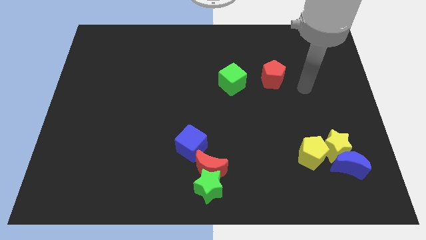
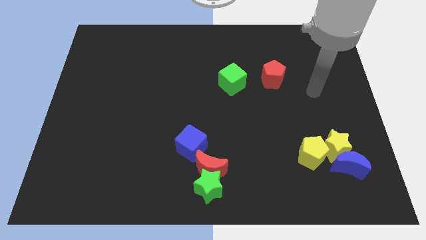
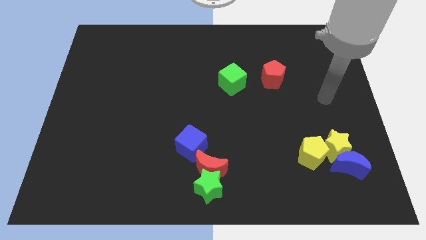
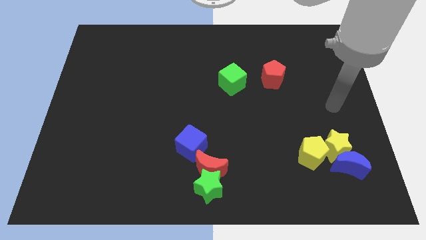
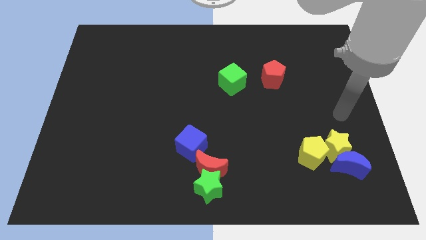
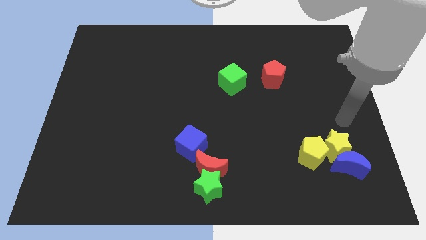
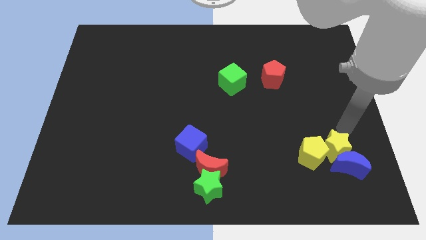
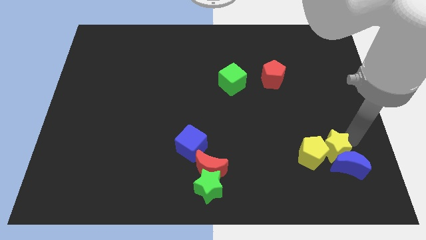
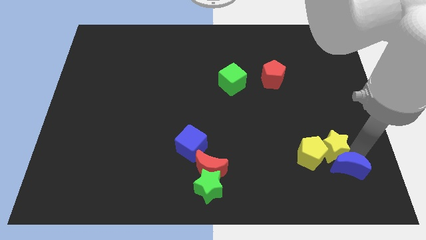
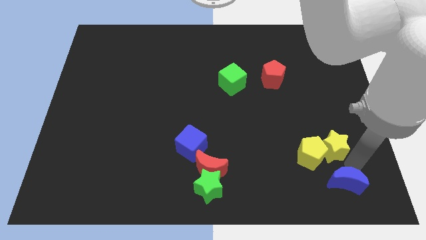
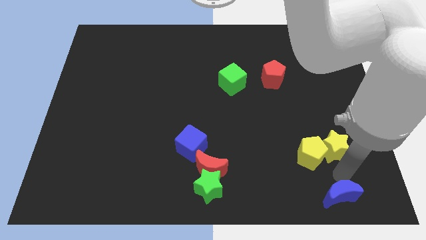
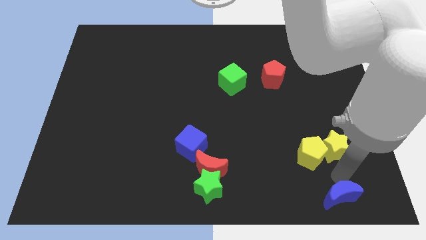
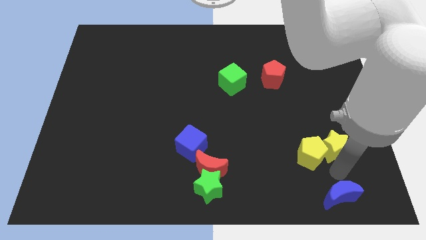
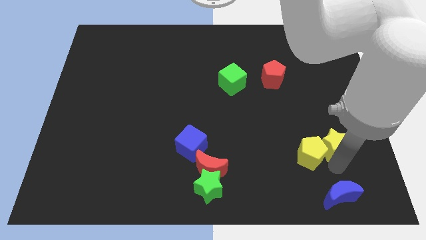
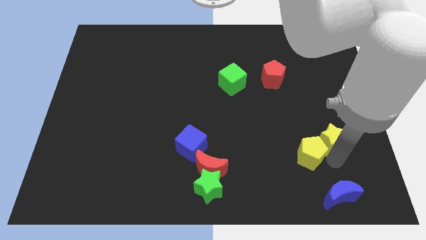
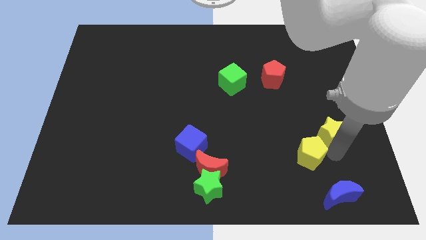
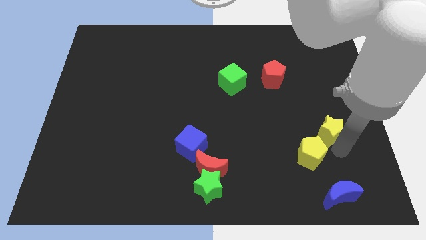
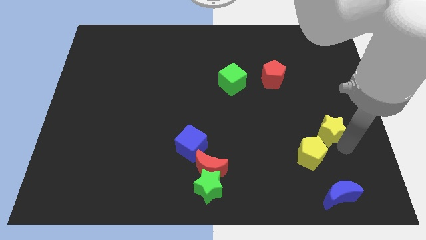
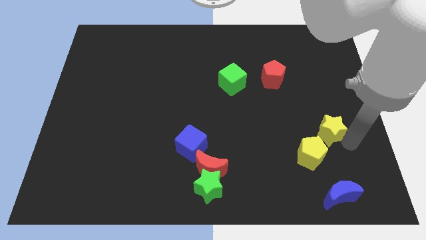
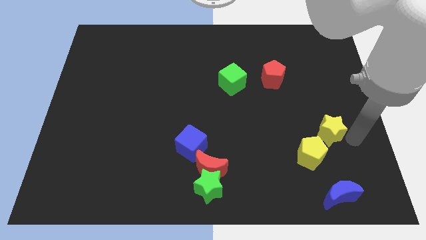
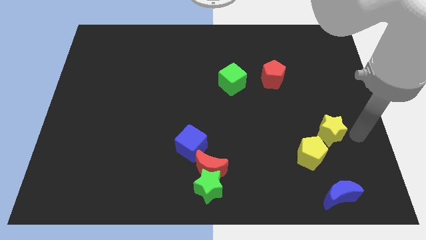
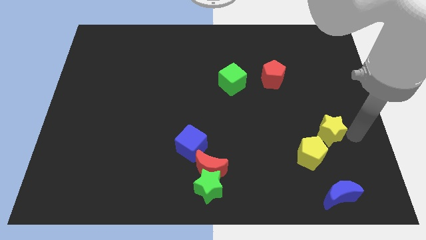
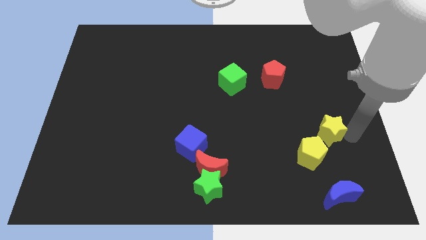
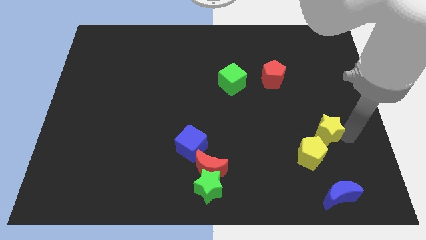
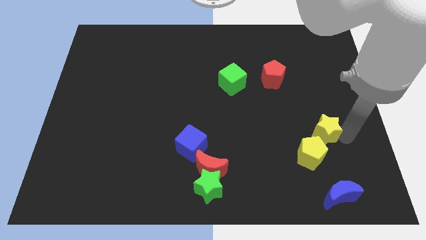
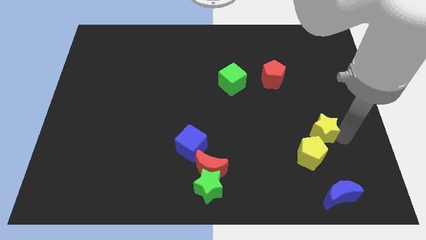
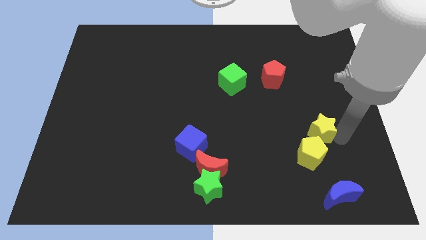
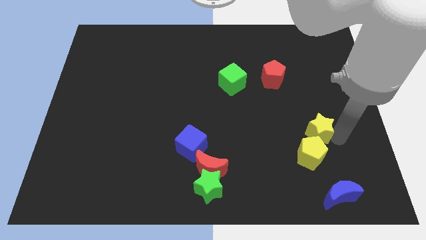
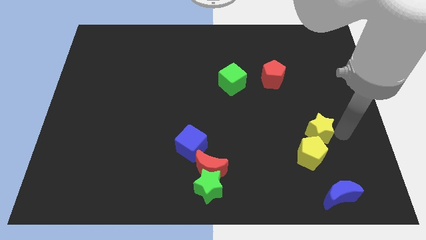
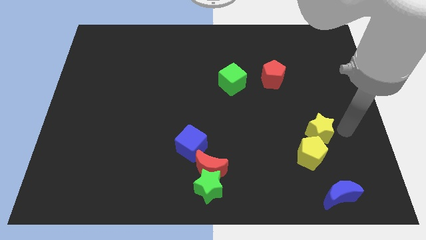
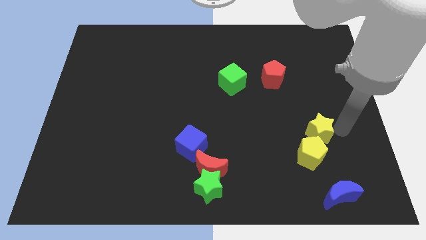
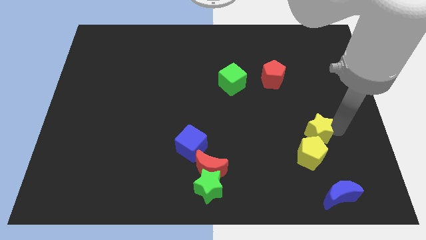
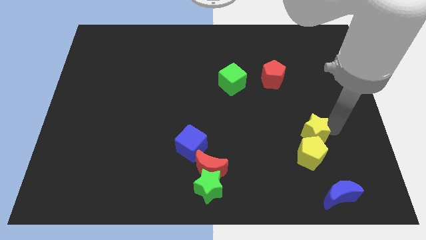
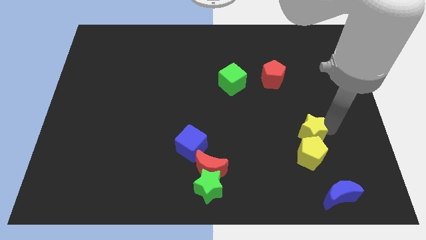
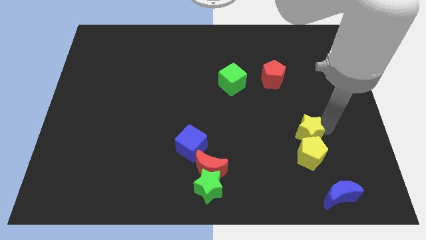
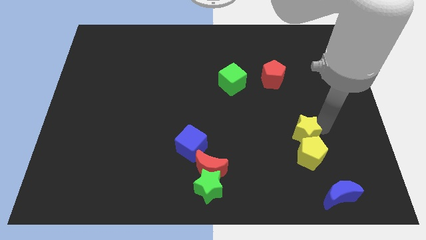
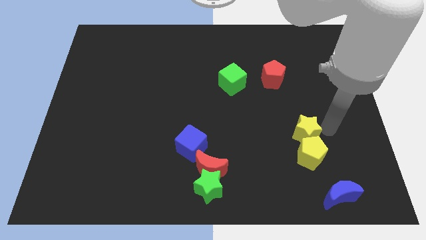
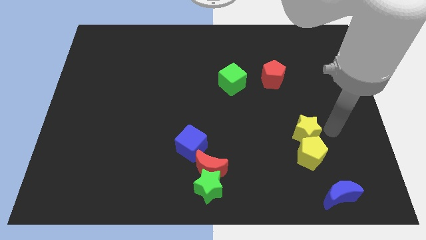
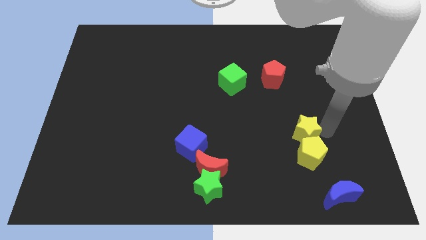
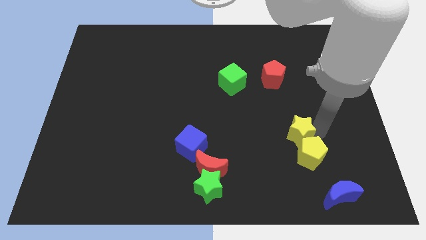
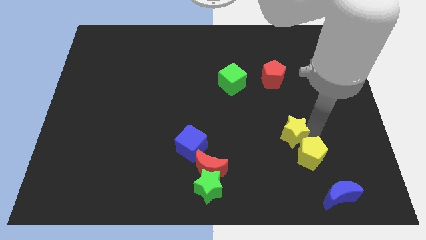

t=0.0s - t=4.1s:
slightly move the yellow star to the left

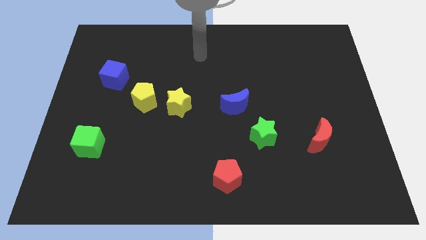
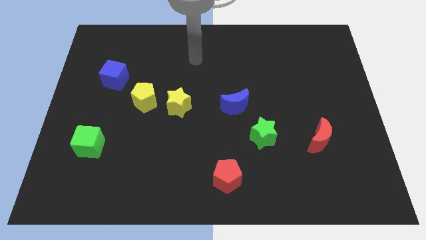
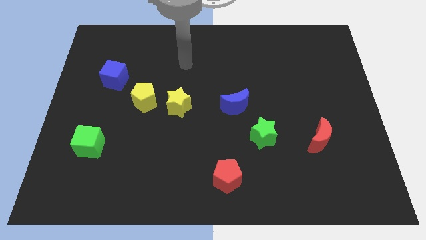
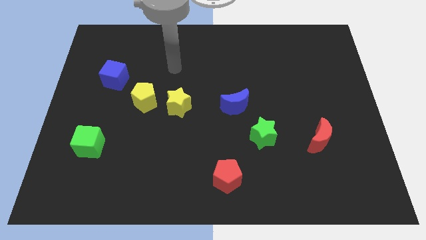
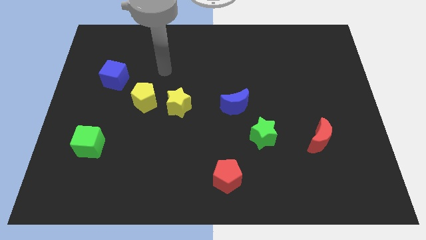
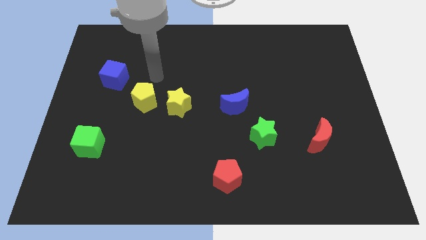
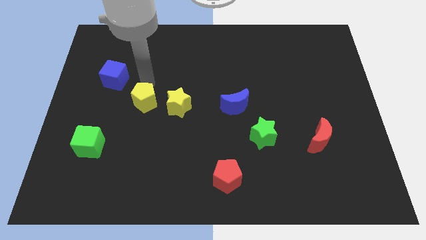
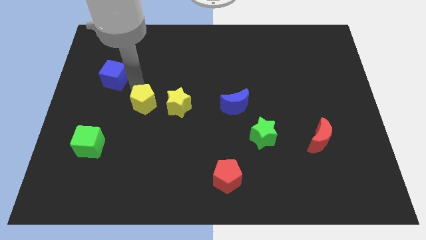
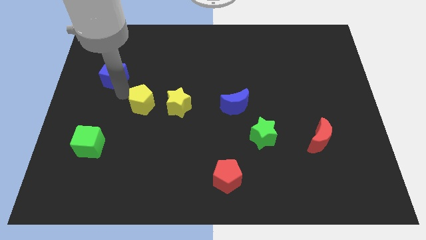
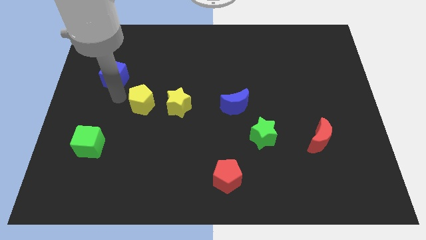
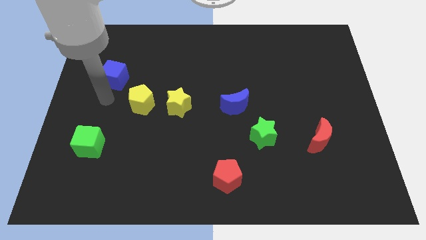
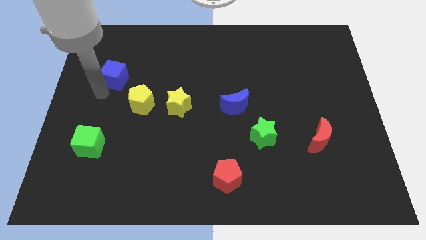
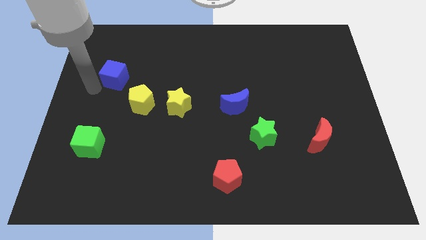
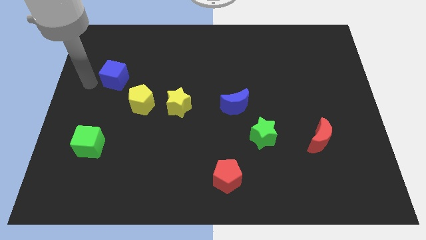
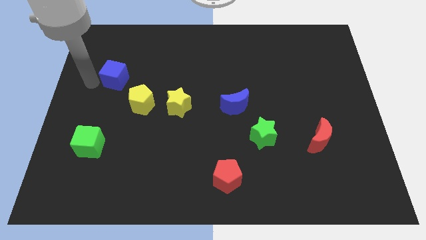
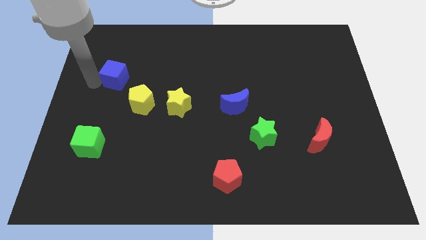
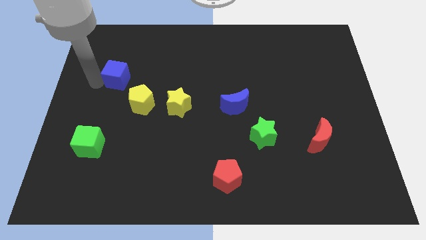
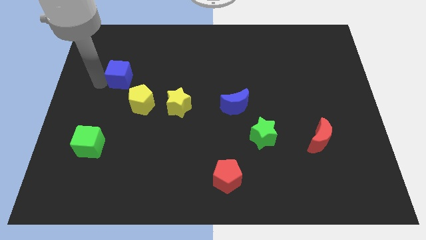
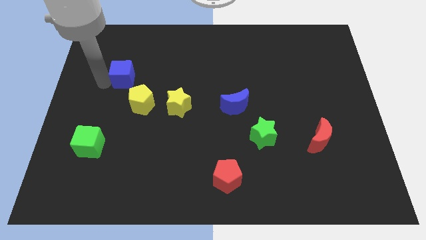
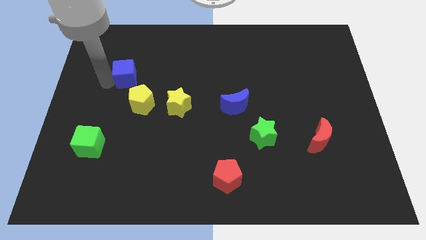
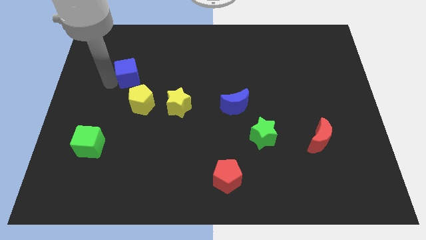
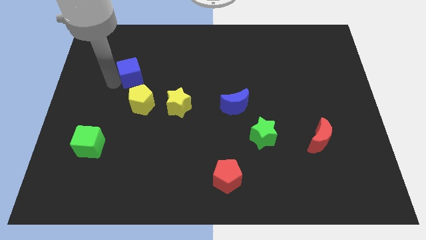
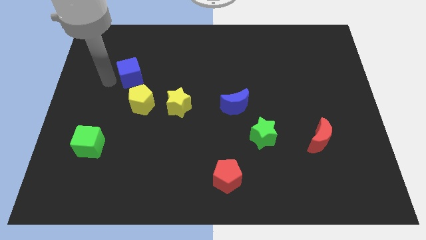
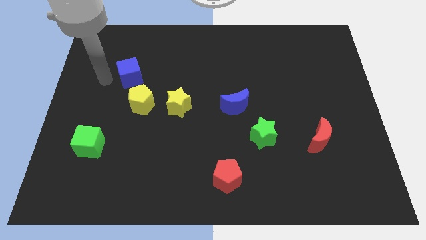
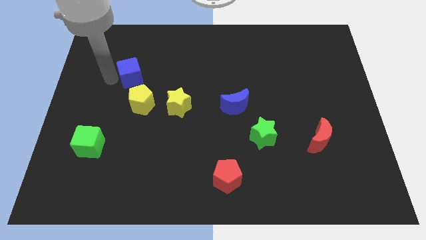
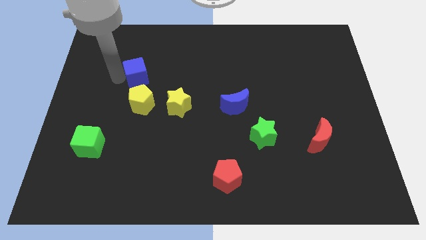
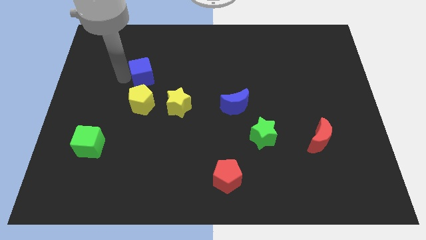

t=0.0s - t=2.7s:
slightly push the blue cube right

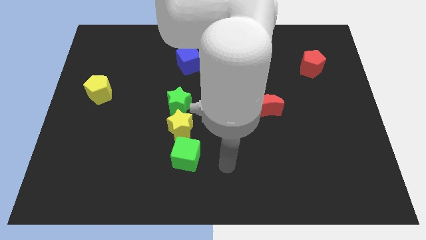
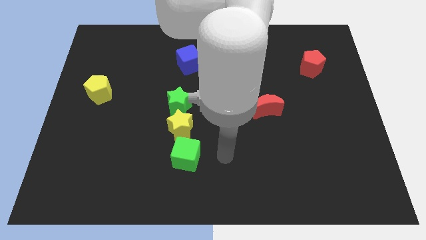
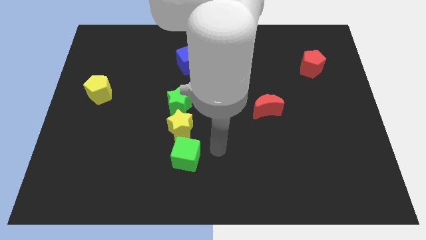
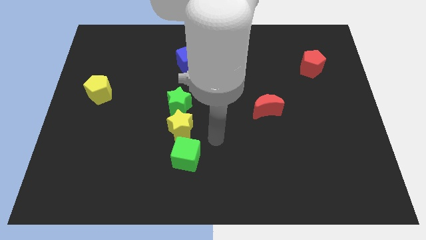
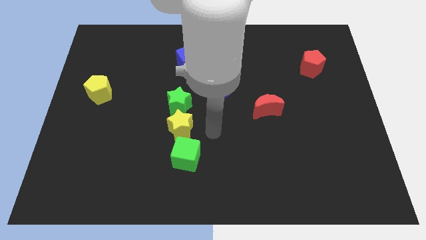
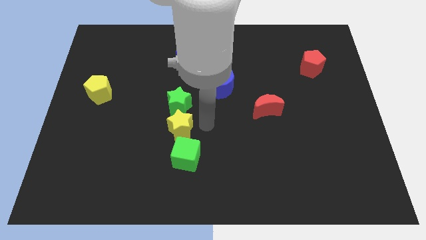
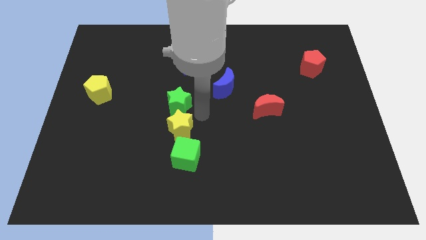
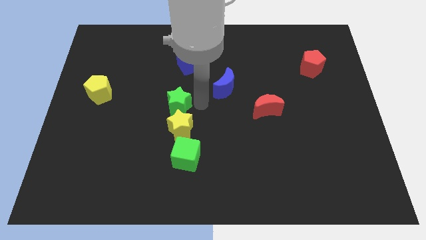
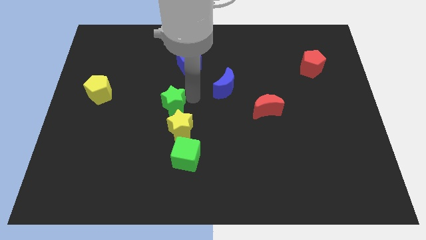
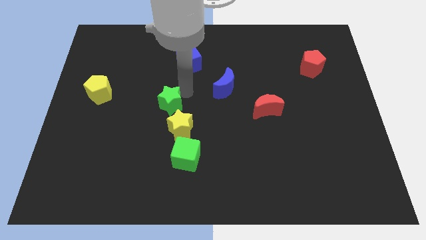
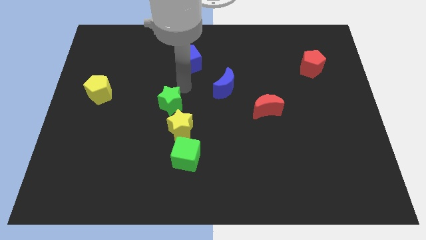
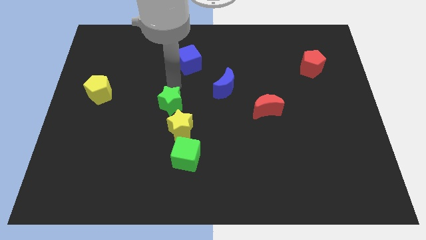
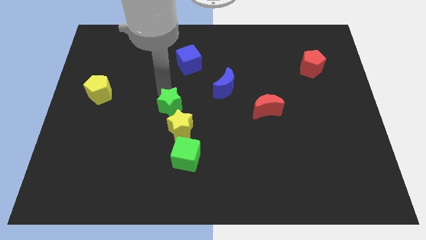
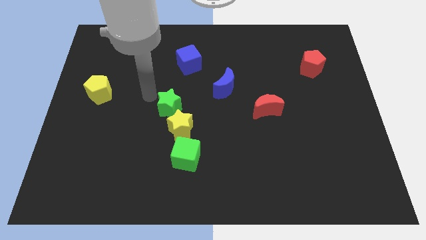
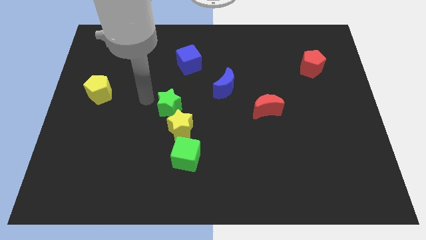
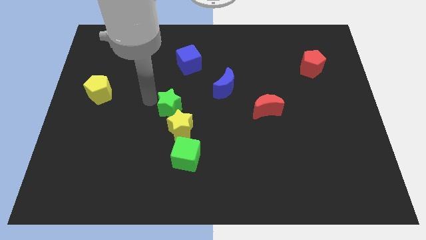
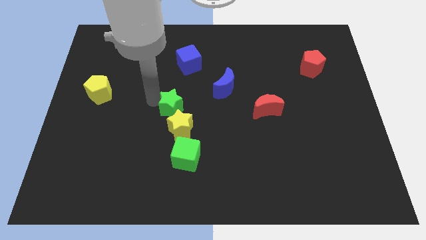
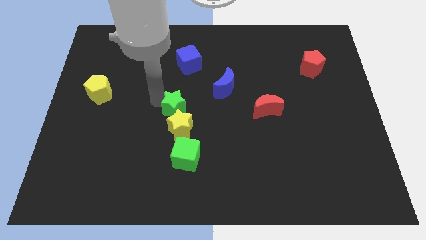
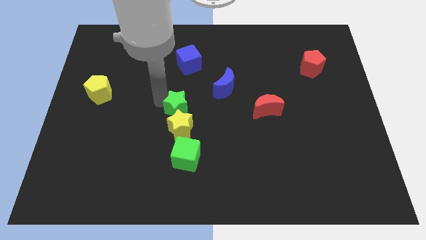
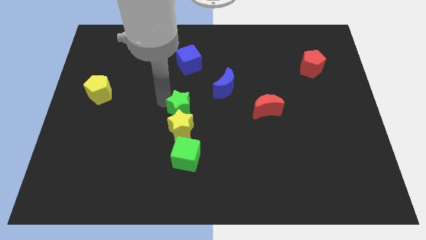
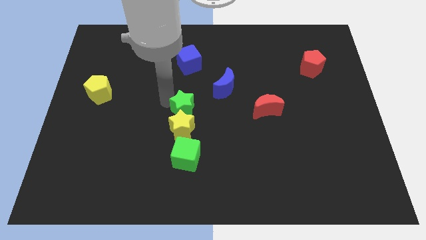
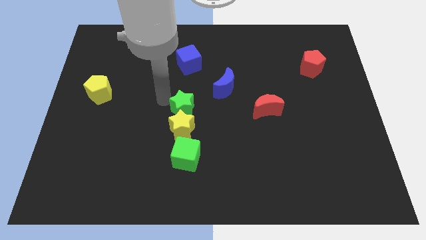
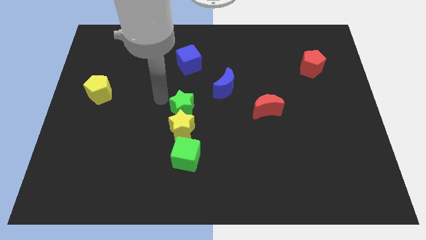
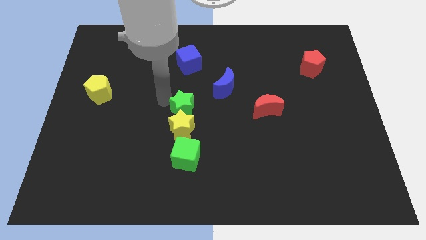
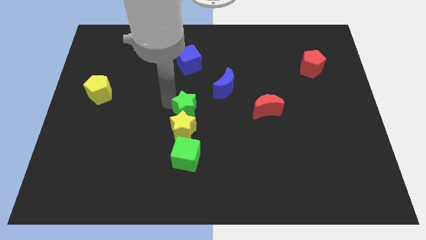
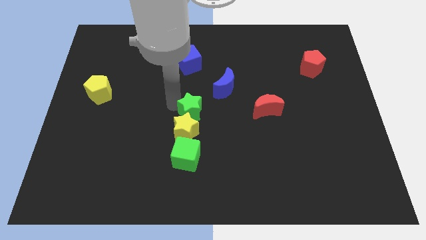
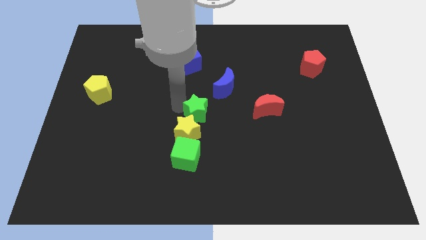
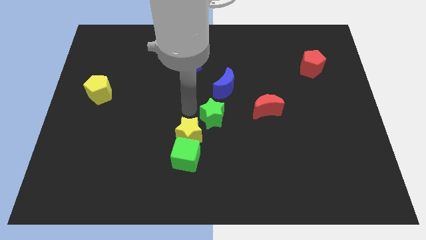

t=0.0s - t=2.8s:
push the green star down and right slightly
